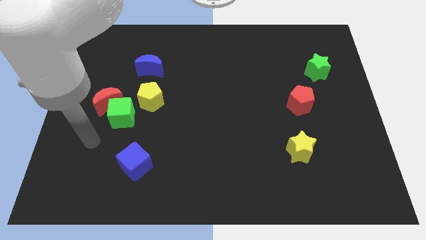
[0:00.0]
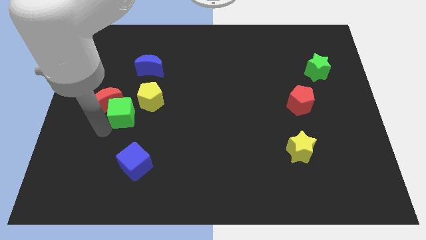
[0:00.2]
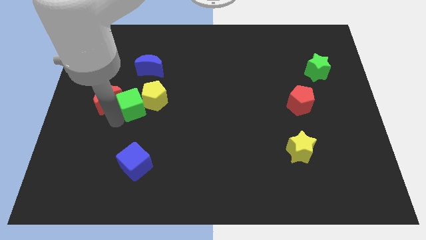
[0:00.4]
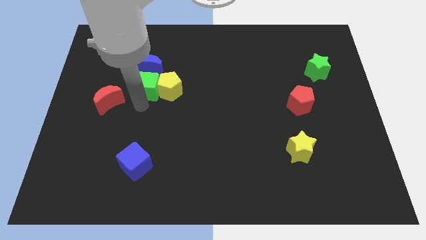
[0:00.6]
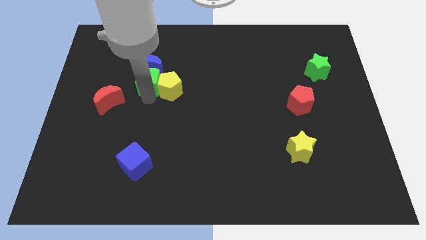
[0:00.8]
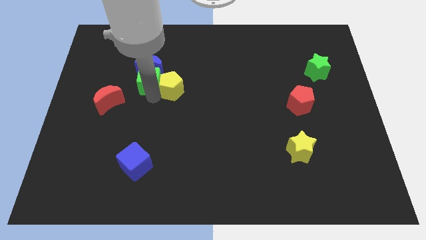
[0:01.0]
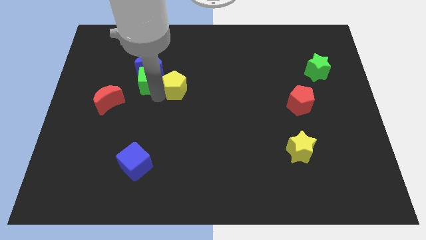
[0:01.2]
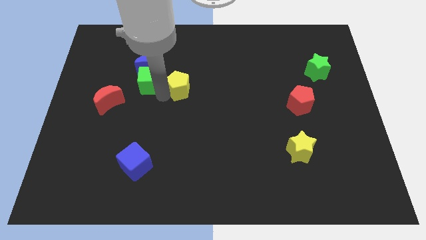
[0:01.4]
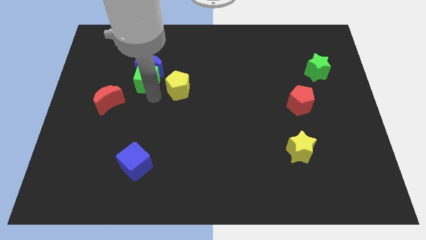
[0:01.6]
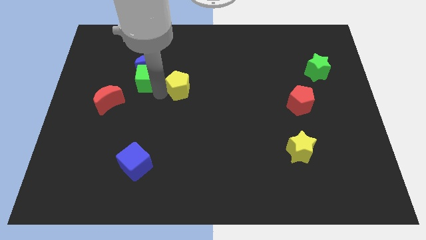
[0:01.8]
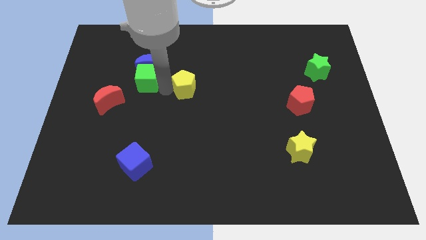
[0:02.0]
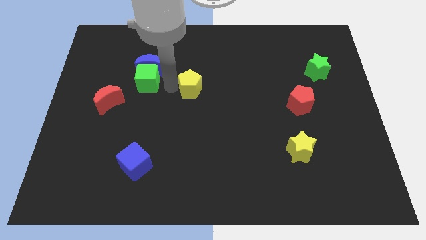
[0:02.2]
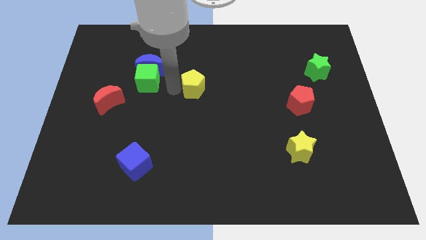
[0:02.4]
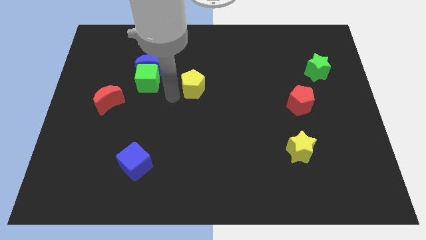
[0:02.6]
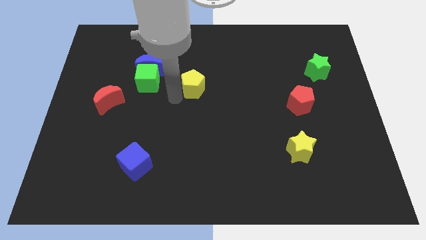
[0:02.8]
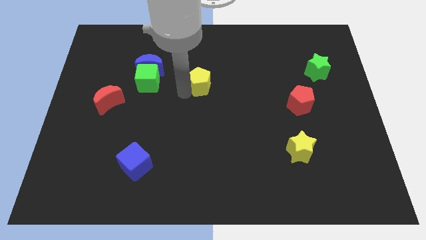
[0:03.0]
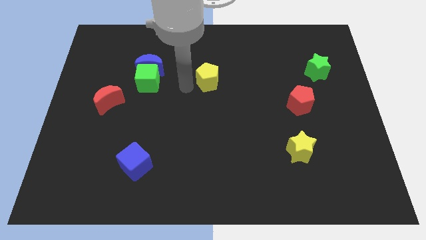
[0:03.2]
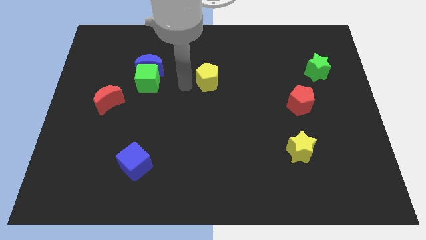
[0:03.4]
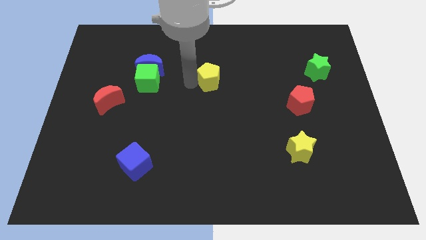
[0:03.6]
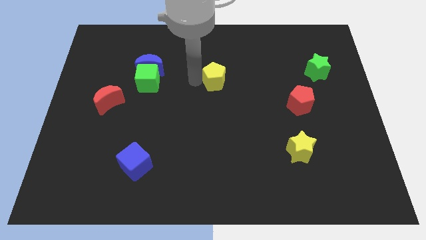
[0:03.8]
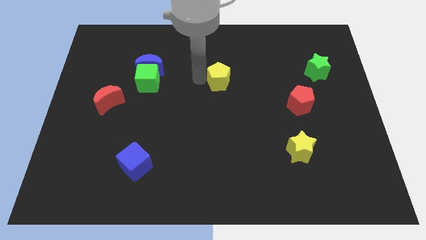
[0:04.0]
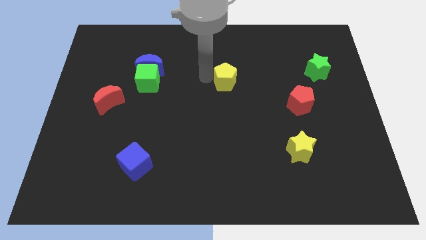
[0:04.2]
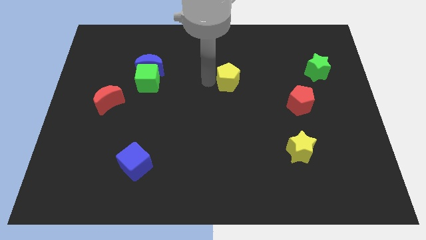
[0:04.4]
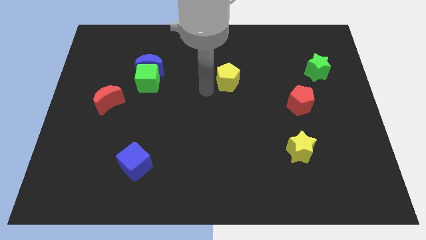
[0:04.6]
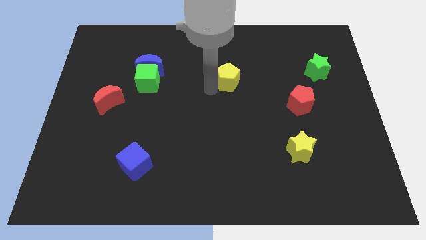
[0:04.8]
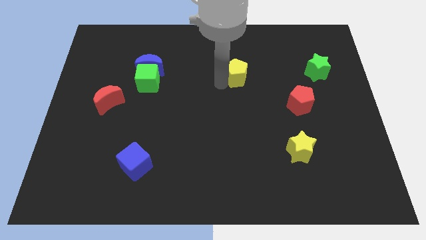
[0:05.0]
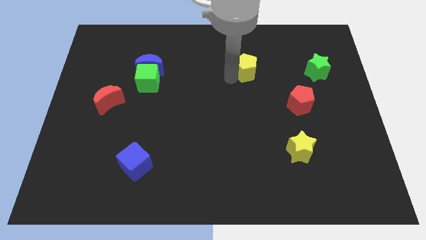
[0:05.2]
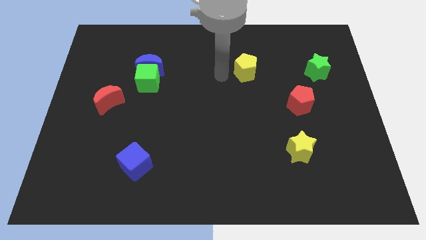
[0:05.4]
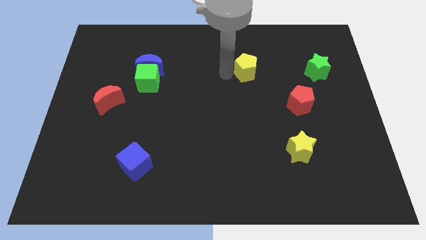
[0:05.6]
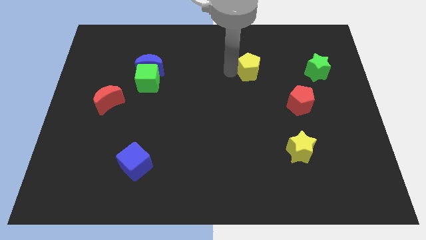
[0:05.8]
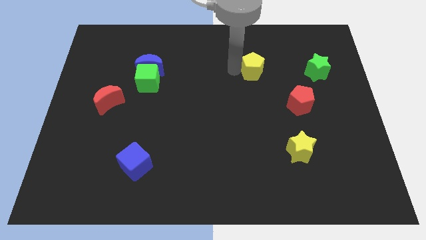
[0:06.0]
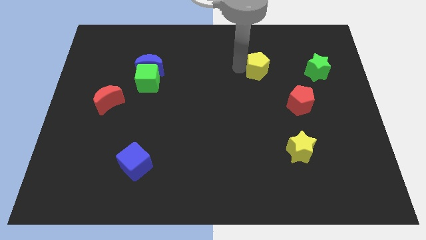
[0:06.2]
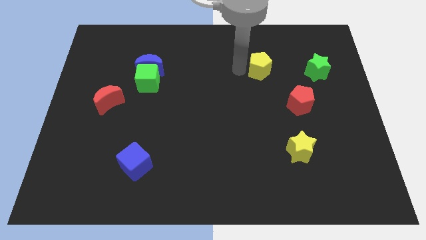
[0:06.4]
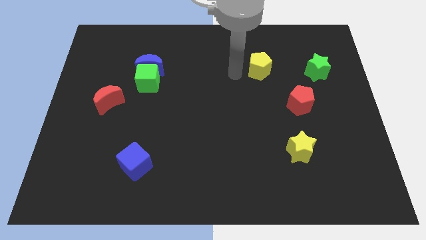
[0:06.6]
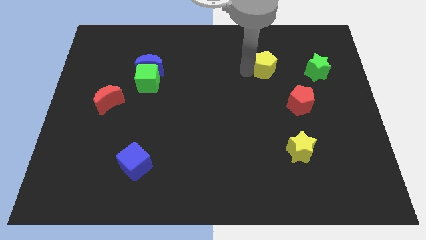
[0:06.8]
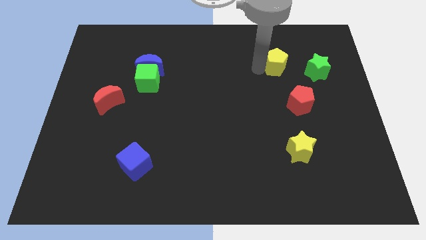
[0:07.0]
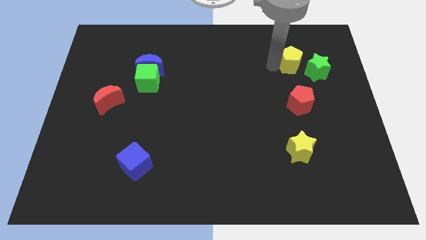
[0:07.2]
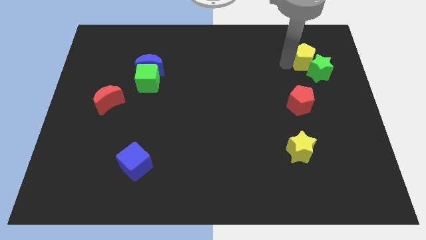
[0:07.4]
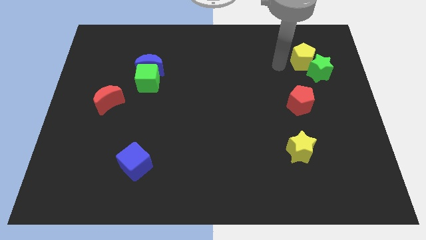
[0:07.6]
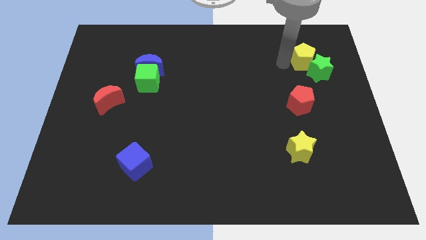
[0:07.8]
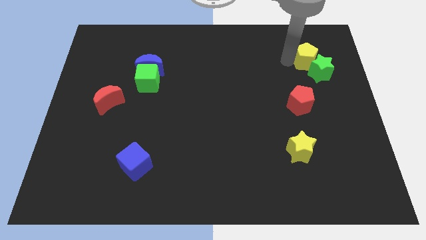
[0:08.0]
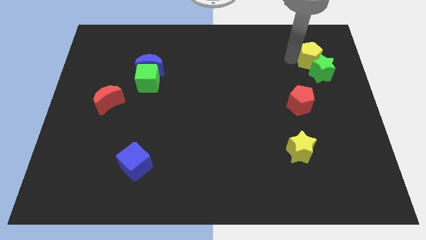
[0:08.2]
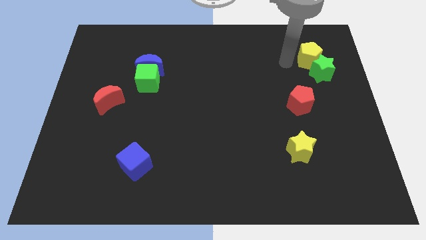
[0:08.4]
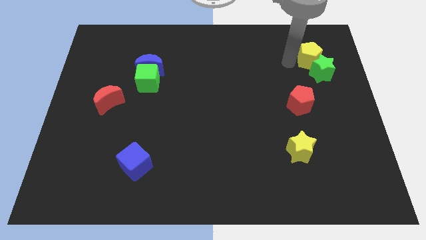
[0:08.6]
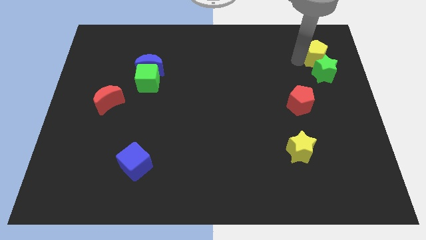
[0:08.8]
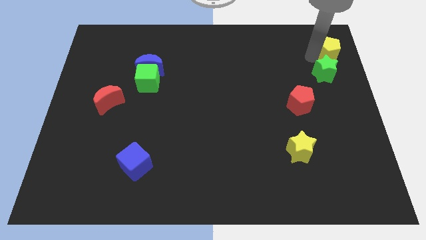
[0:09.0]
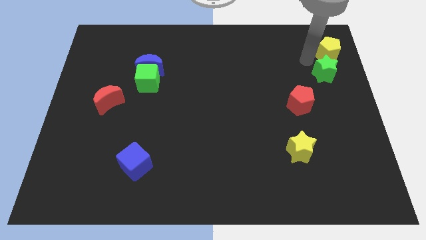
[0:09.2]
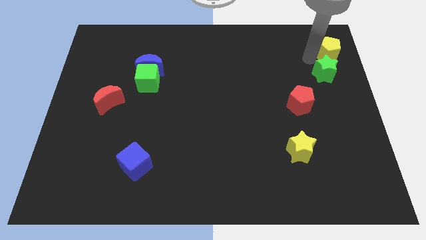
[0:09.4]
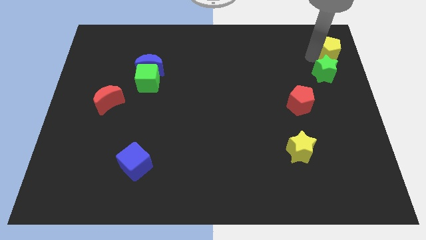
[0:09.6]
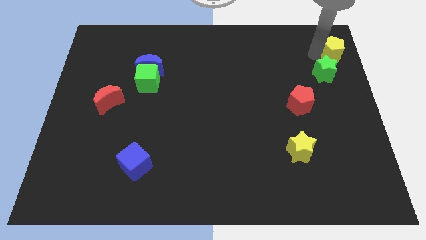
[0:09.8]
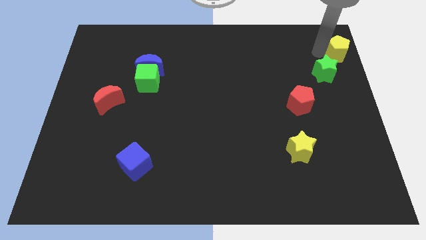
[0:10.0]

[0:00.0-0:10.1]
put the yellow pentagon to the top right of the board

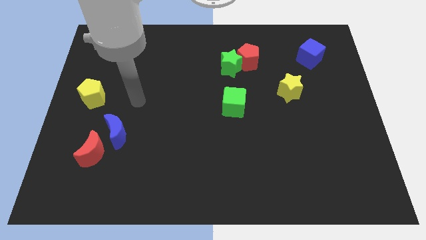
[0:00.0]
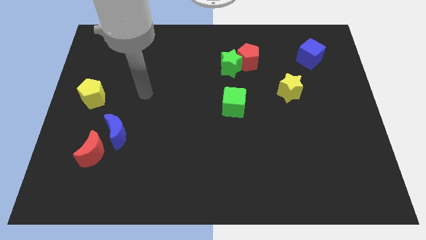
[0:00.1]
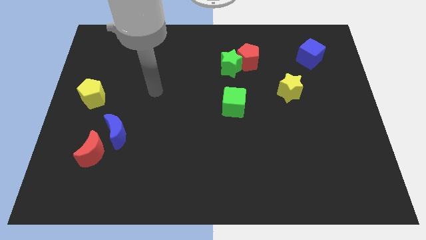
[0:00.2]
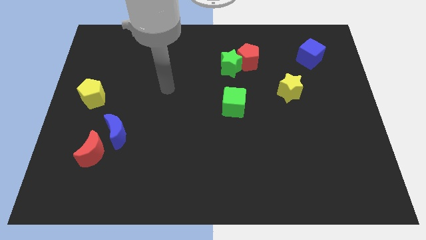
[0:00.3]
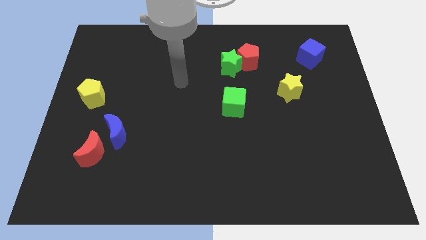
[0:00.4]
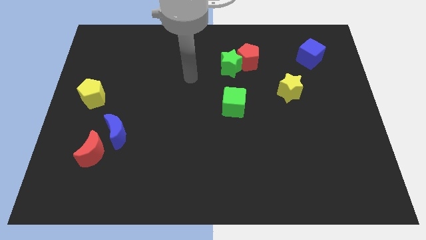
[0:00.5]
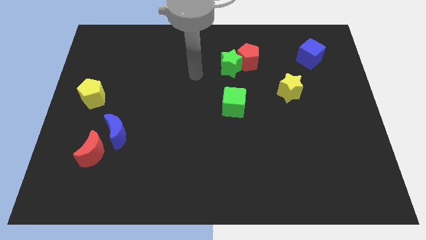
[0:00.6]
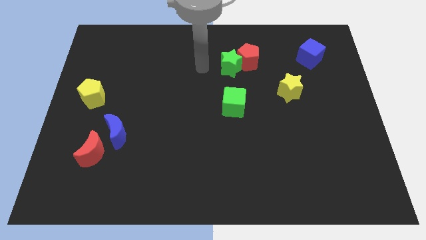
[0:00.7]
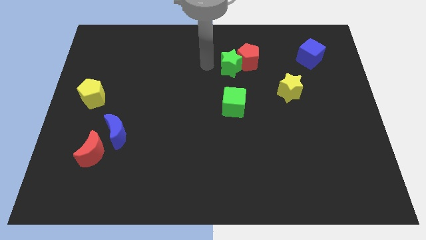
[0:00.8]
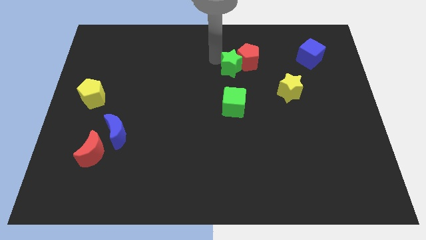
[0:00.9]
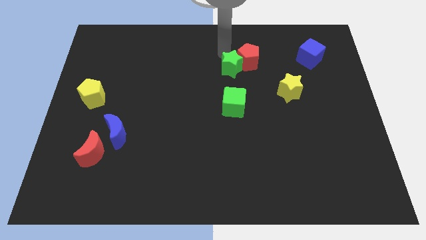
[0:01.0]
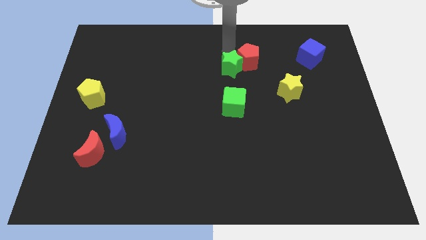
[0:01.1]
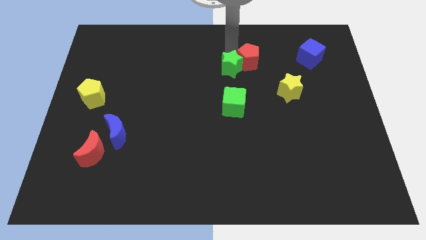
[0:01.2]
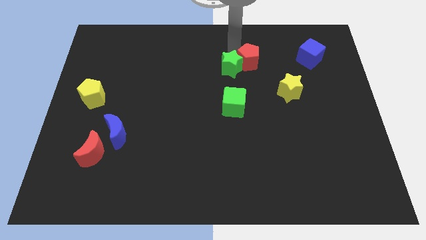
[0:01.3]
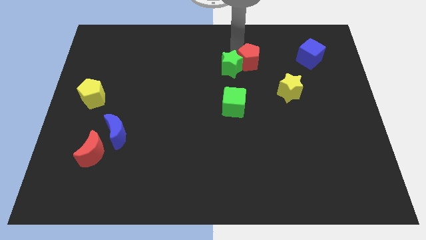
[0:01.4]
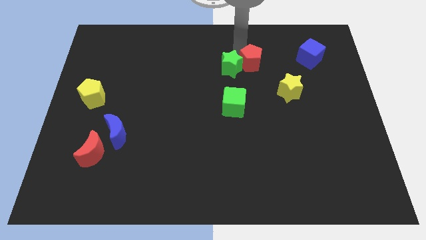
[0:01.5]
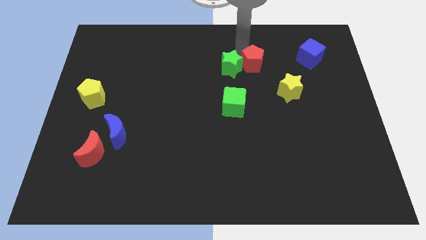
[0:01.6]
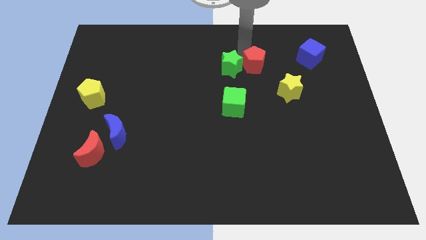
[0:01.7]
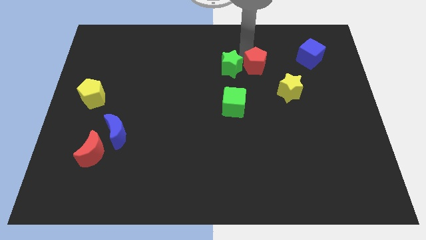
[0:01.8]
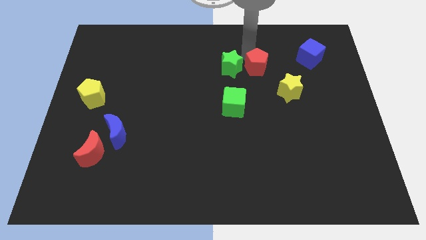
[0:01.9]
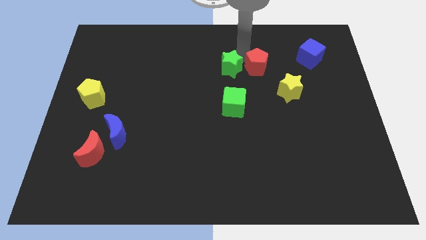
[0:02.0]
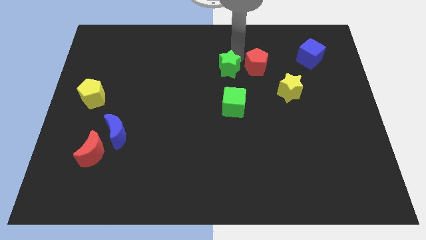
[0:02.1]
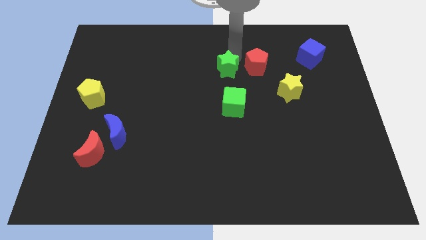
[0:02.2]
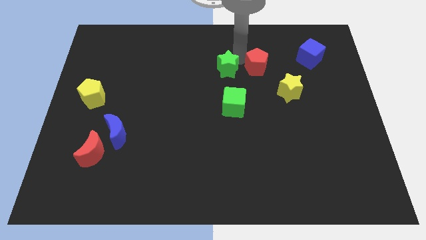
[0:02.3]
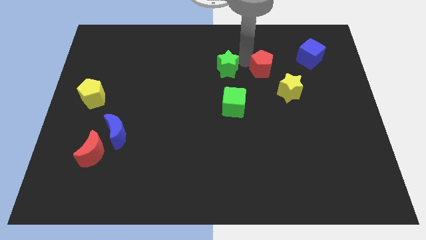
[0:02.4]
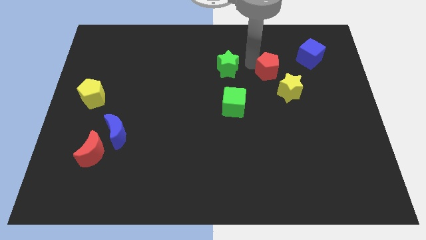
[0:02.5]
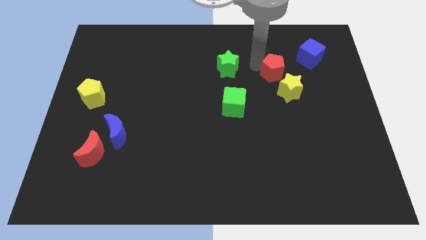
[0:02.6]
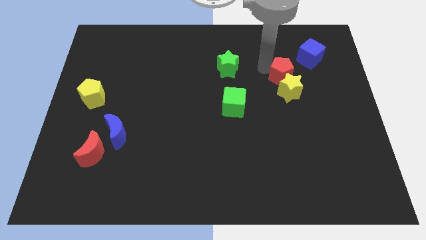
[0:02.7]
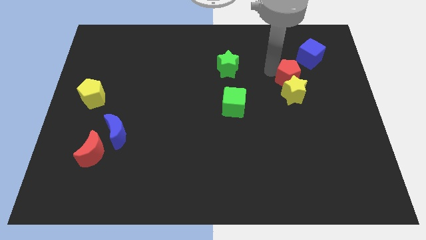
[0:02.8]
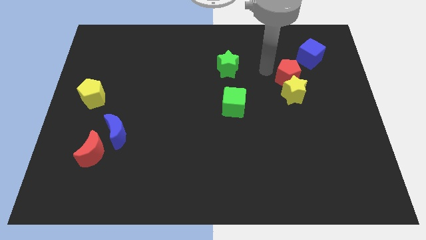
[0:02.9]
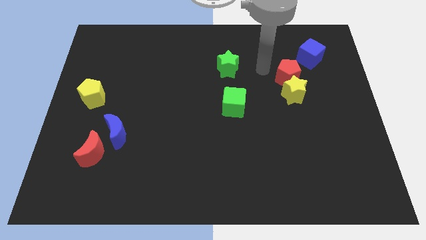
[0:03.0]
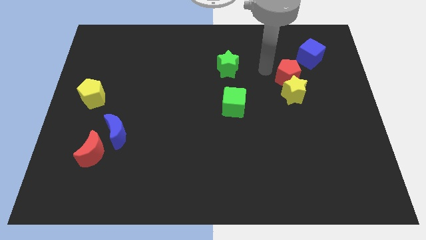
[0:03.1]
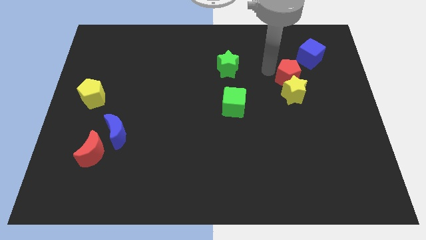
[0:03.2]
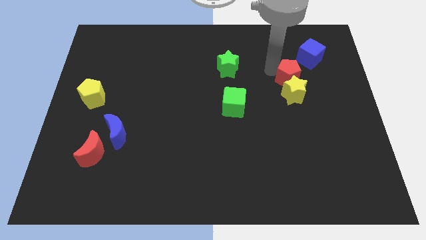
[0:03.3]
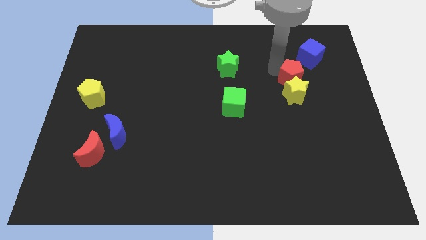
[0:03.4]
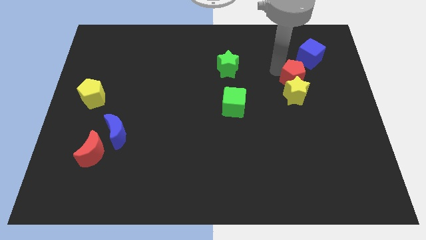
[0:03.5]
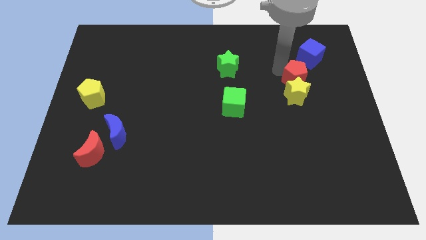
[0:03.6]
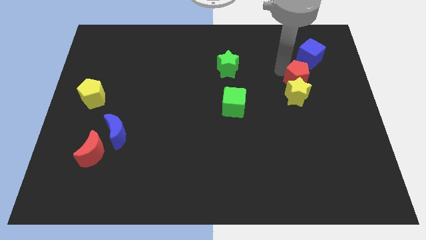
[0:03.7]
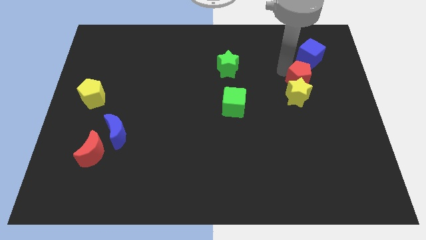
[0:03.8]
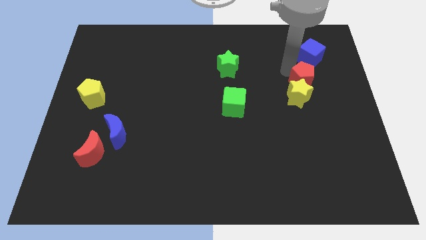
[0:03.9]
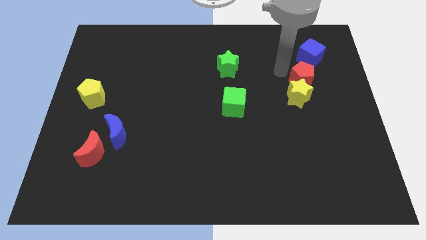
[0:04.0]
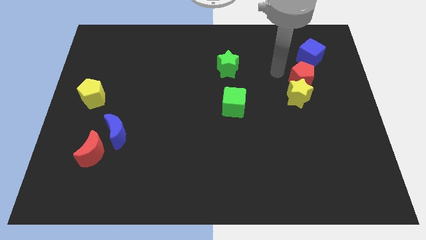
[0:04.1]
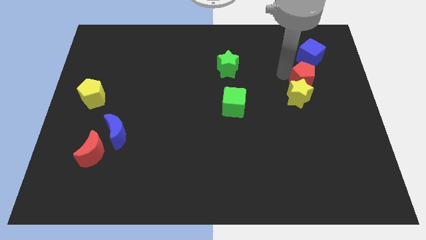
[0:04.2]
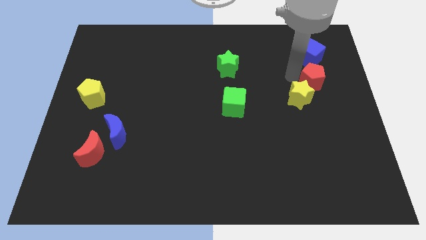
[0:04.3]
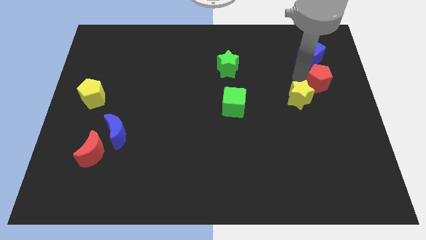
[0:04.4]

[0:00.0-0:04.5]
slide the red pentagon to the right side of the board
